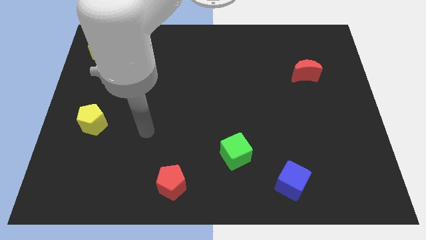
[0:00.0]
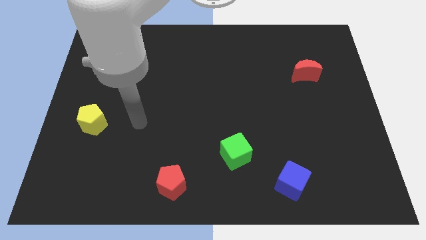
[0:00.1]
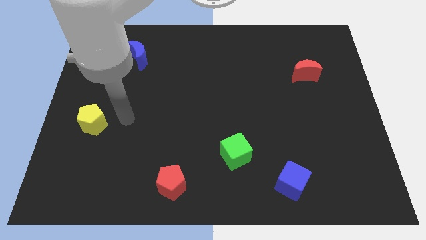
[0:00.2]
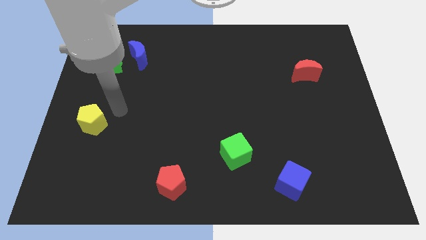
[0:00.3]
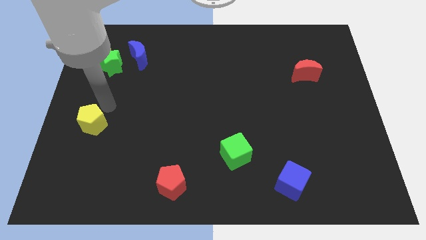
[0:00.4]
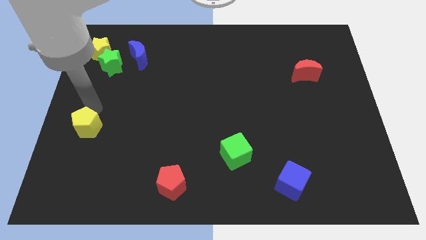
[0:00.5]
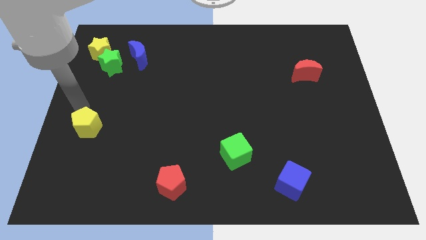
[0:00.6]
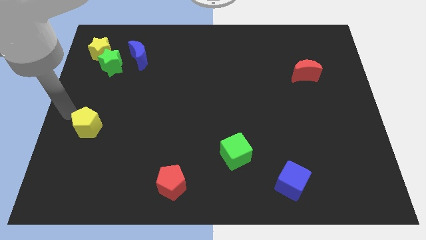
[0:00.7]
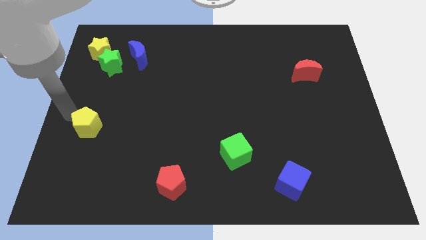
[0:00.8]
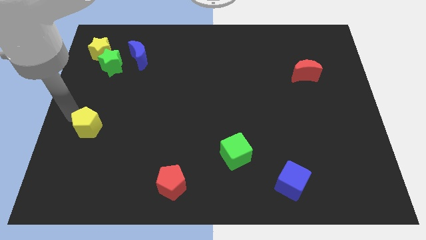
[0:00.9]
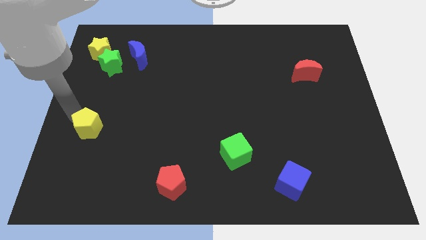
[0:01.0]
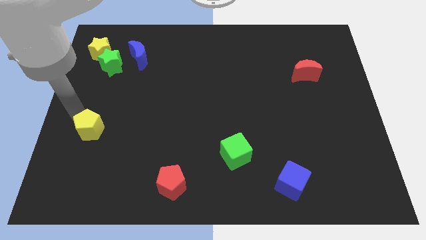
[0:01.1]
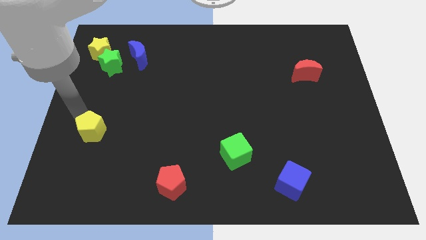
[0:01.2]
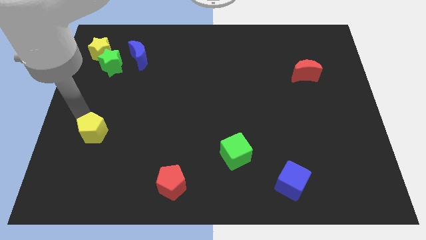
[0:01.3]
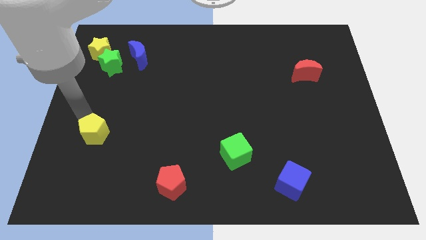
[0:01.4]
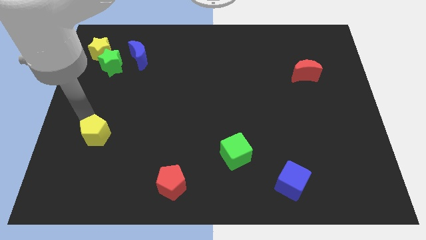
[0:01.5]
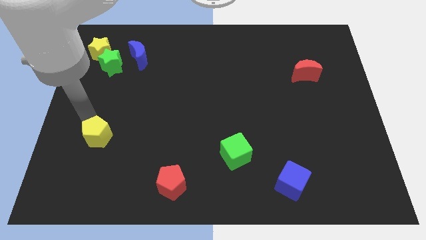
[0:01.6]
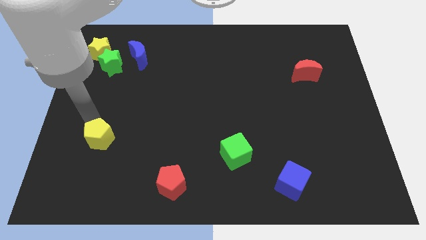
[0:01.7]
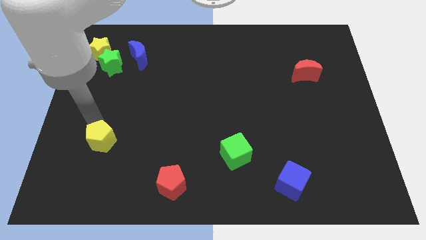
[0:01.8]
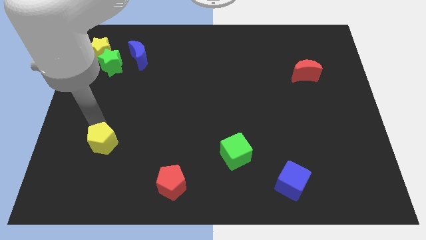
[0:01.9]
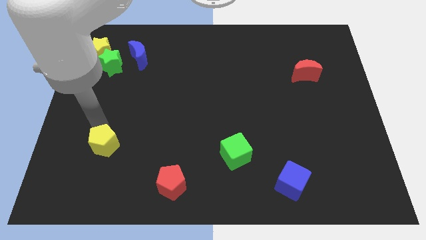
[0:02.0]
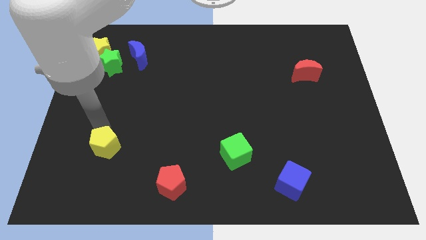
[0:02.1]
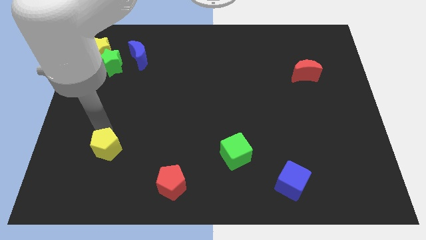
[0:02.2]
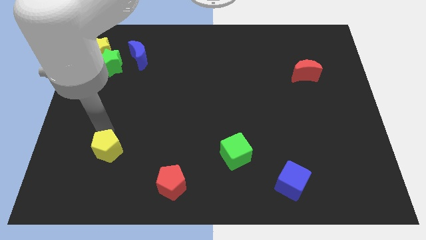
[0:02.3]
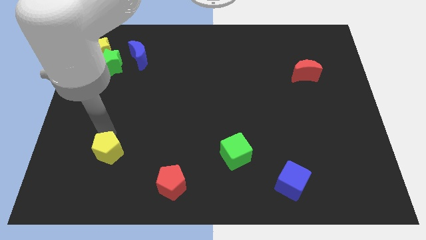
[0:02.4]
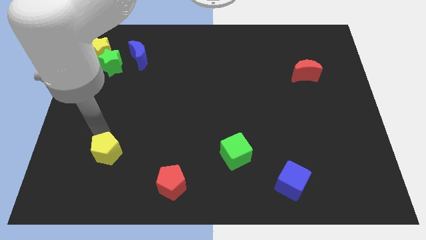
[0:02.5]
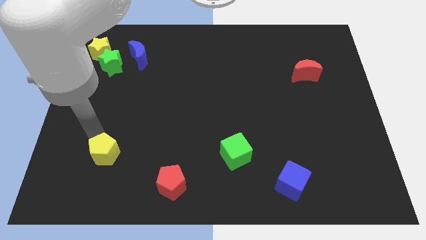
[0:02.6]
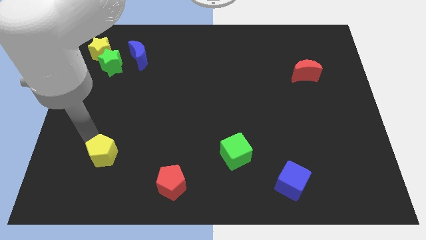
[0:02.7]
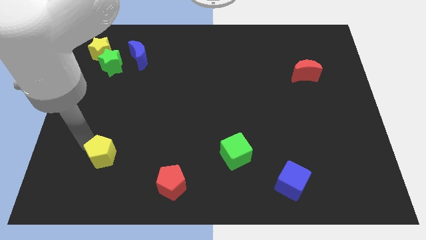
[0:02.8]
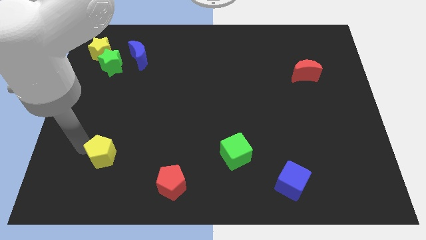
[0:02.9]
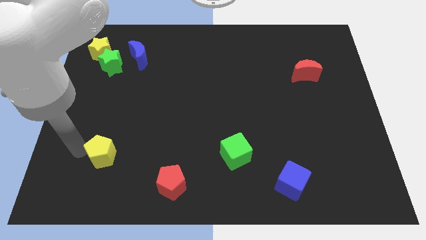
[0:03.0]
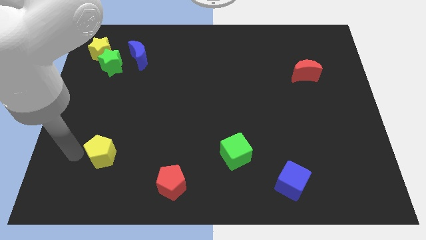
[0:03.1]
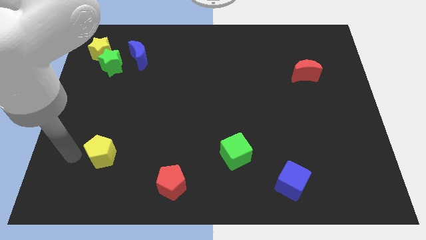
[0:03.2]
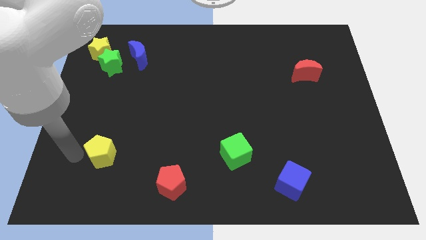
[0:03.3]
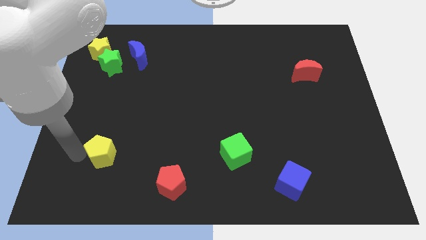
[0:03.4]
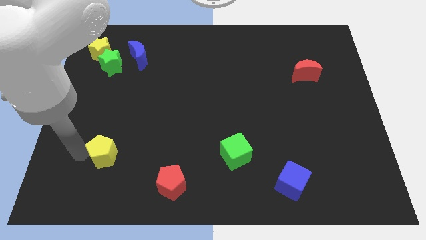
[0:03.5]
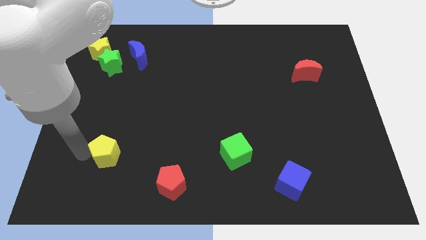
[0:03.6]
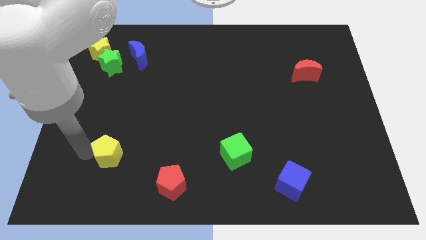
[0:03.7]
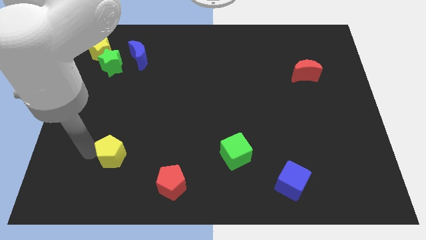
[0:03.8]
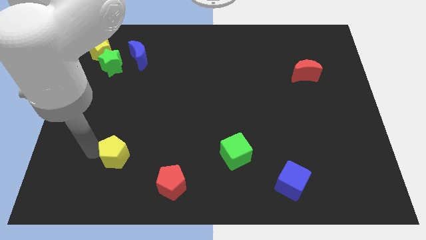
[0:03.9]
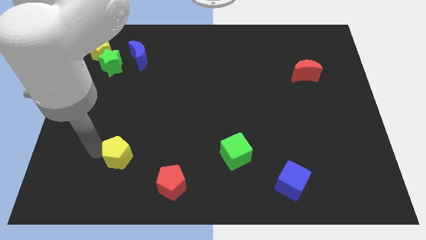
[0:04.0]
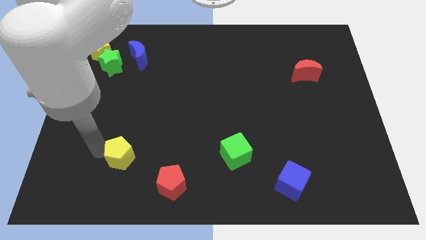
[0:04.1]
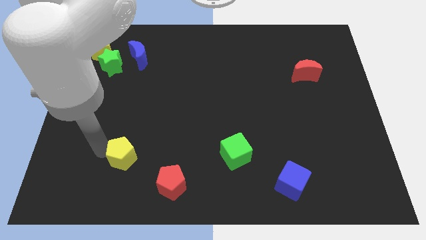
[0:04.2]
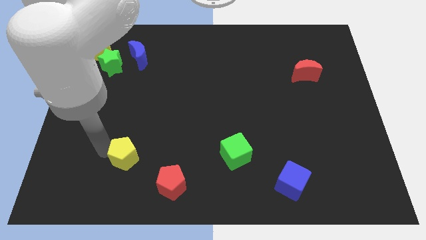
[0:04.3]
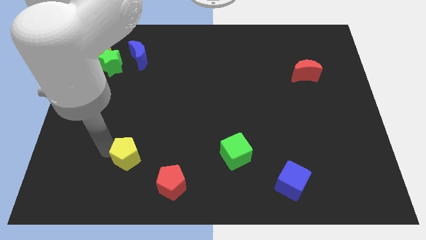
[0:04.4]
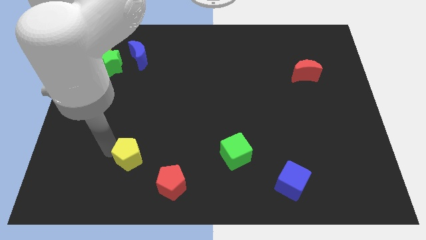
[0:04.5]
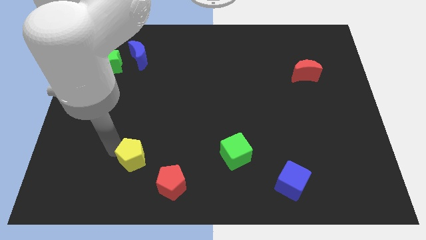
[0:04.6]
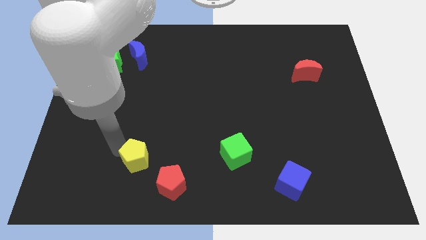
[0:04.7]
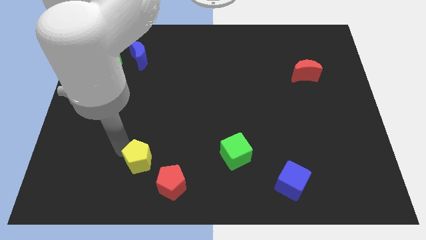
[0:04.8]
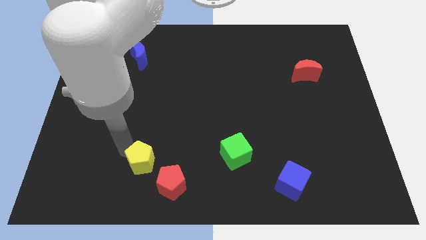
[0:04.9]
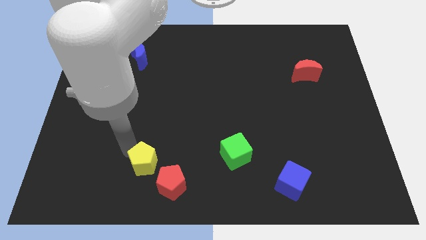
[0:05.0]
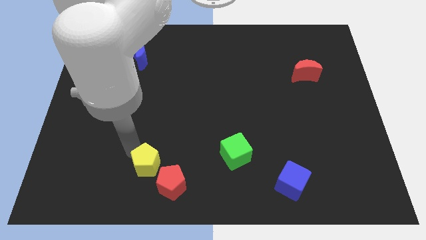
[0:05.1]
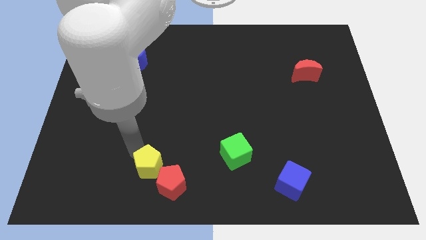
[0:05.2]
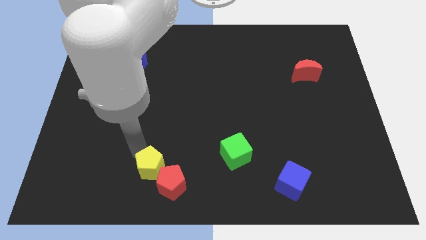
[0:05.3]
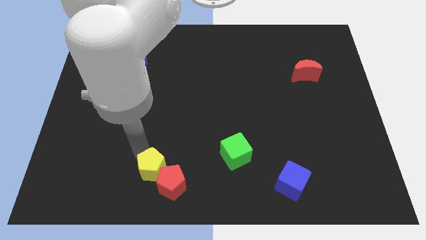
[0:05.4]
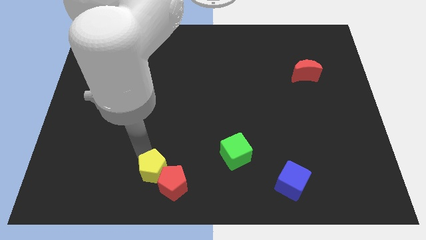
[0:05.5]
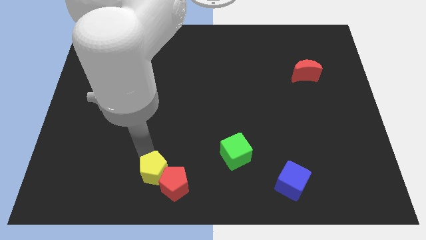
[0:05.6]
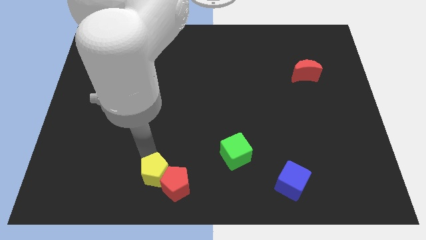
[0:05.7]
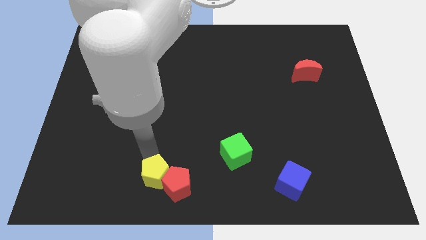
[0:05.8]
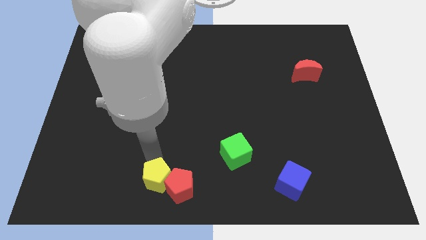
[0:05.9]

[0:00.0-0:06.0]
move the yellow pentagon to the bottom
